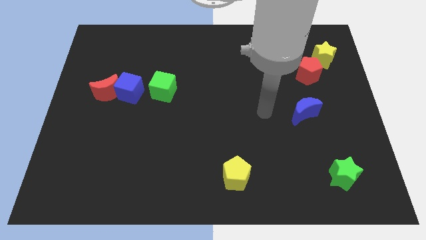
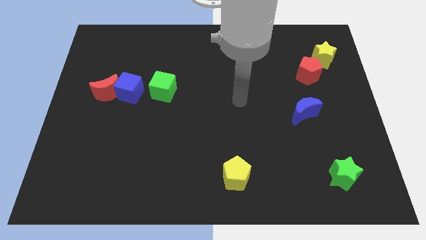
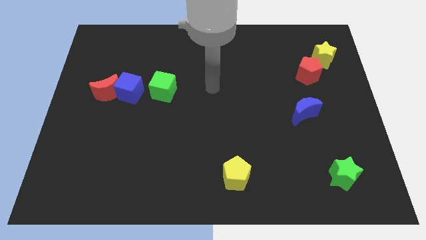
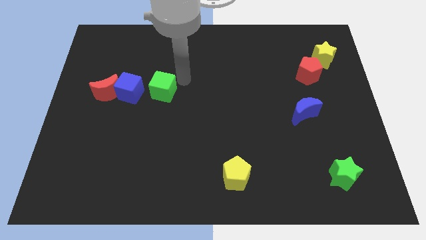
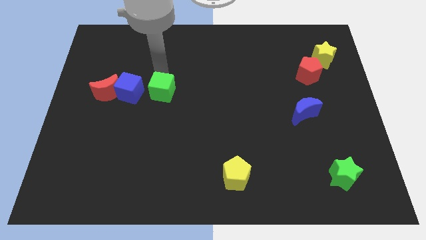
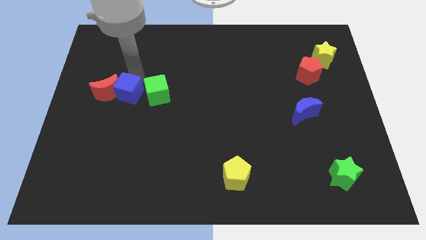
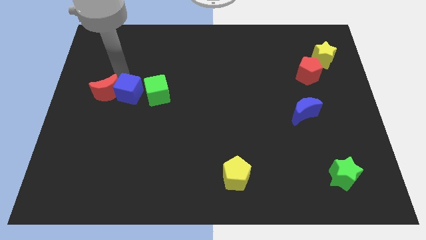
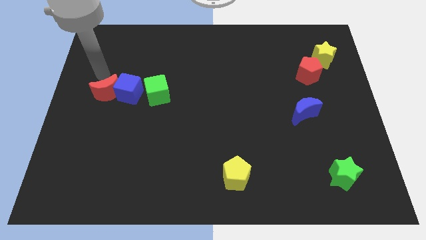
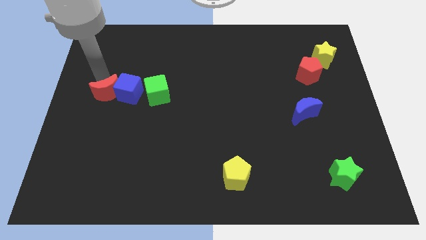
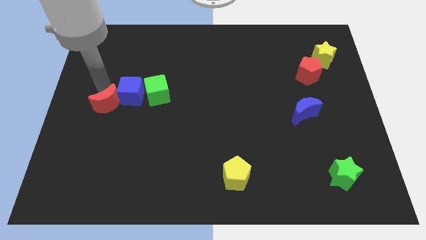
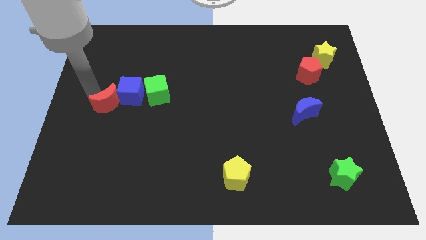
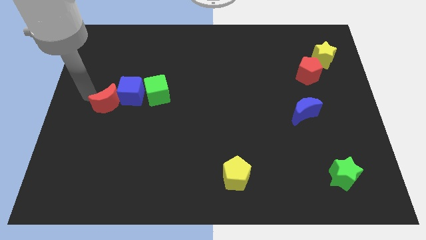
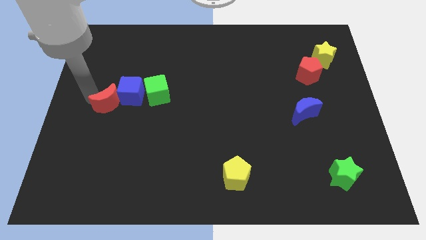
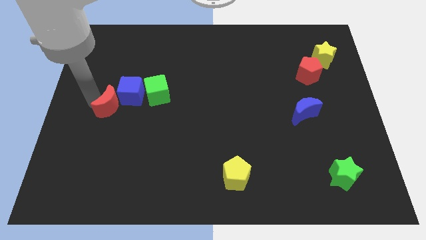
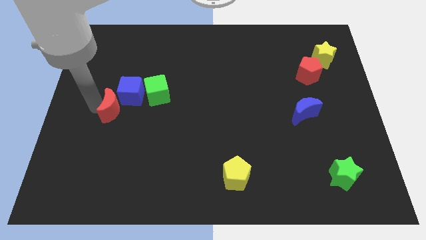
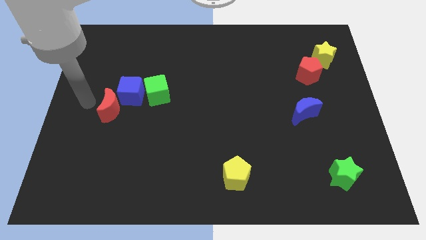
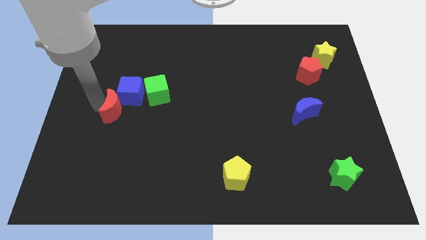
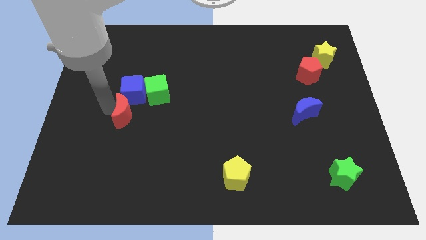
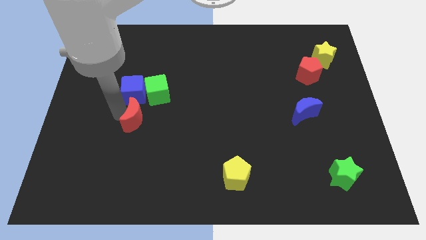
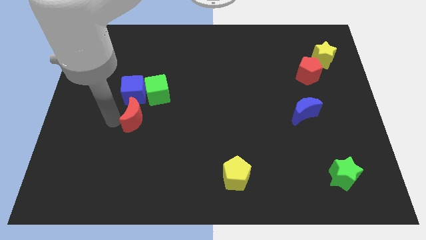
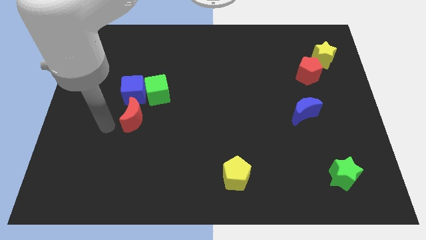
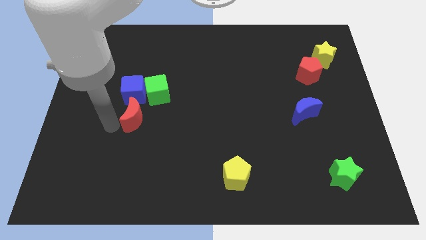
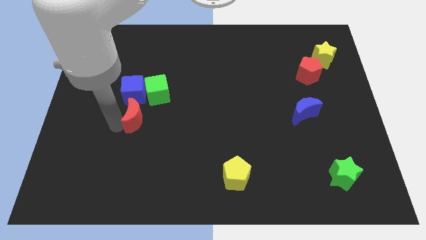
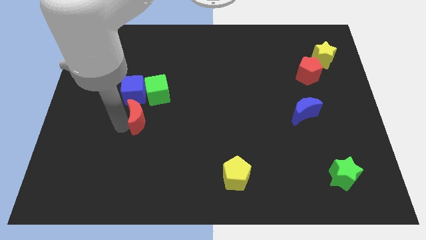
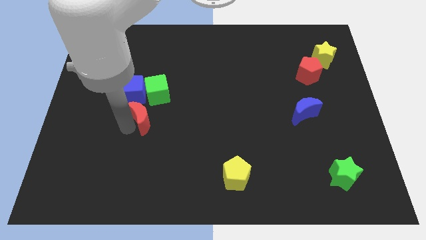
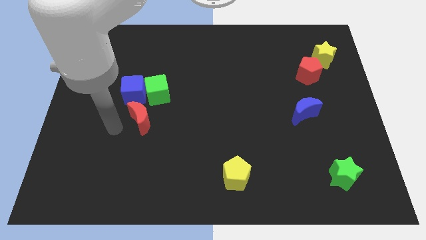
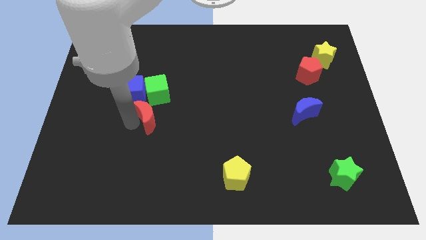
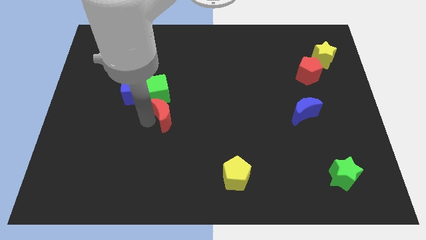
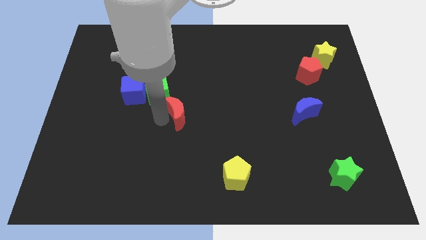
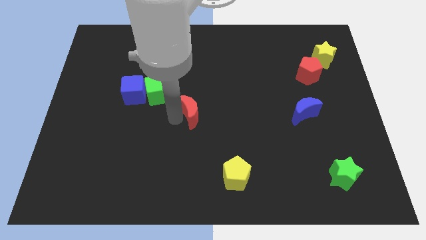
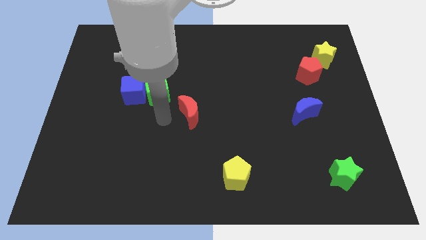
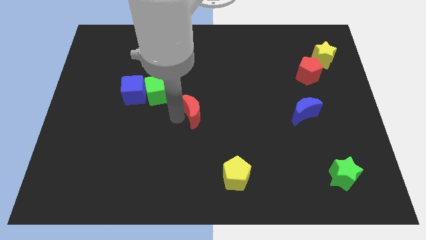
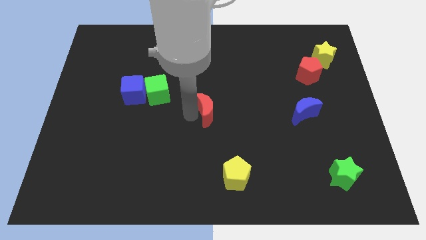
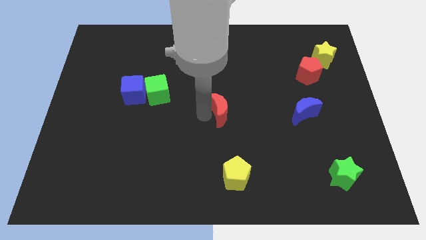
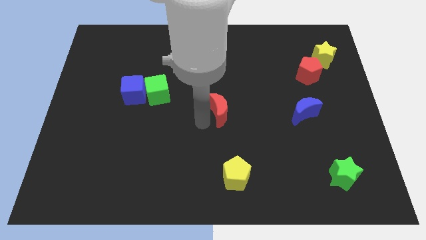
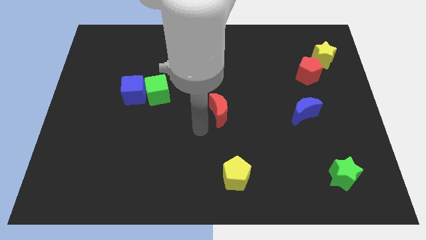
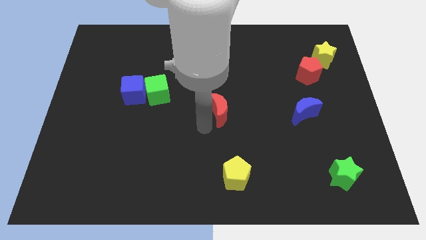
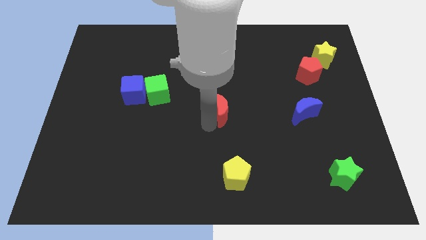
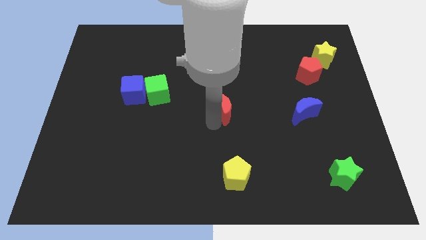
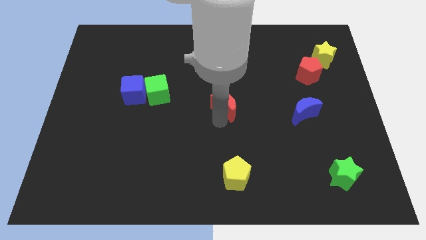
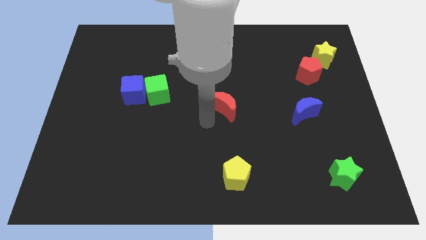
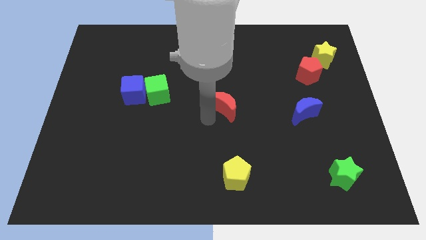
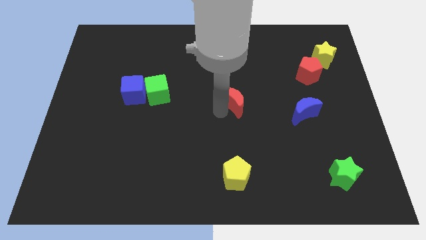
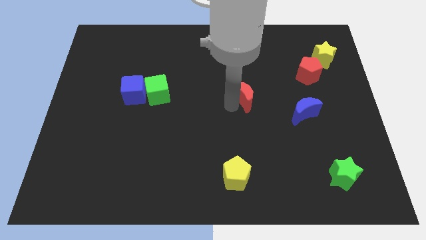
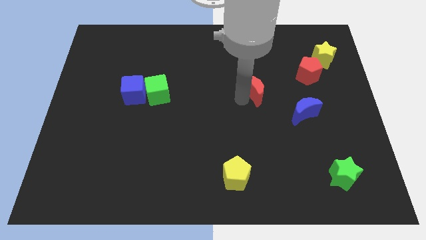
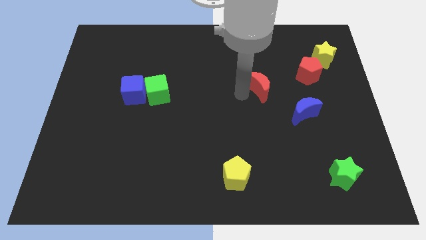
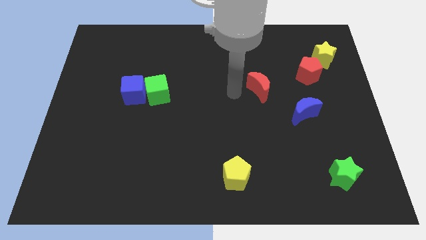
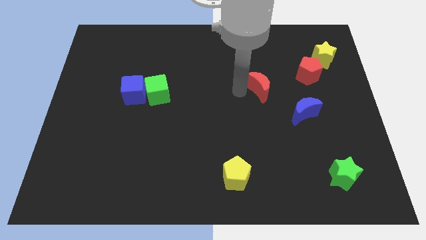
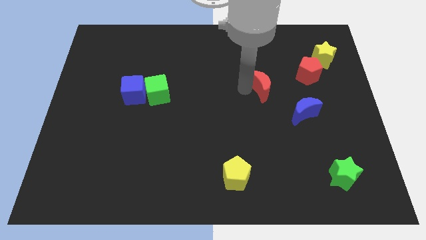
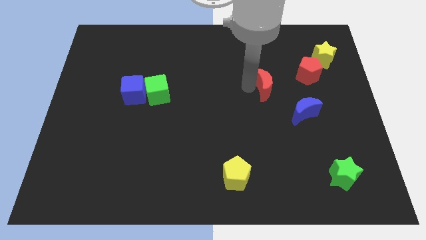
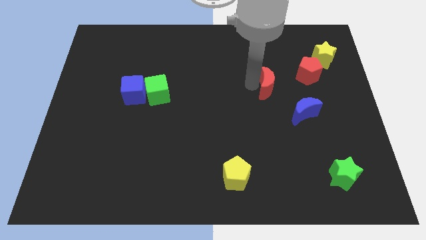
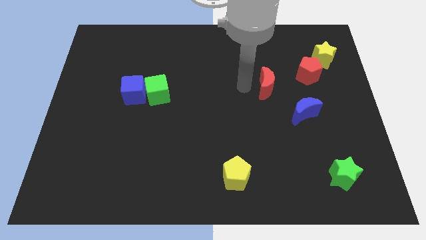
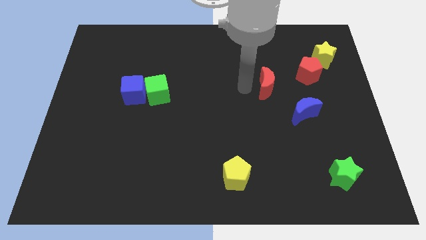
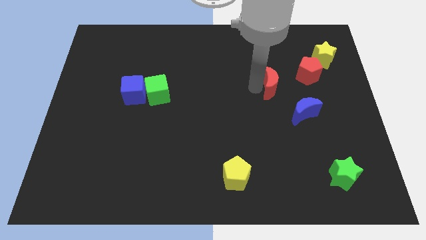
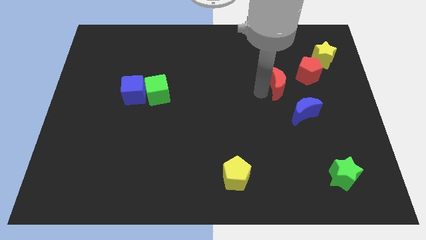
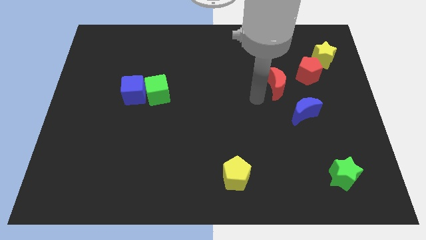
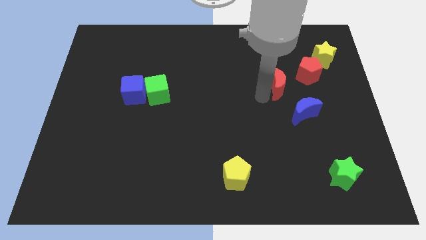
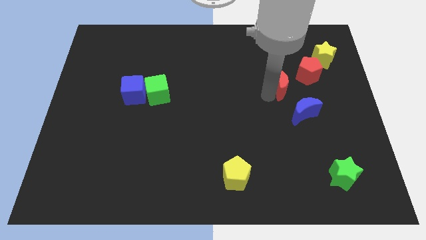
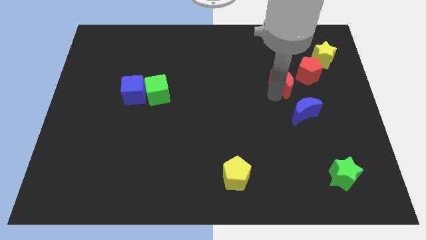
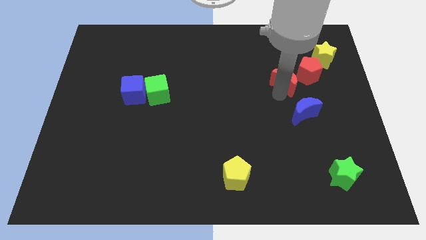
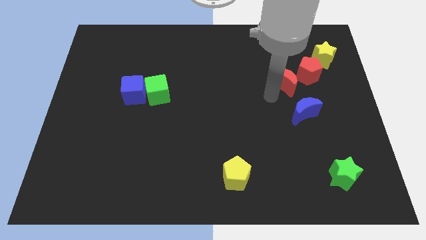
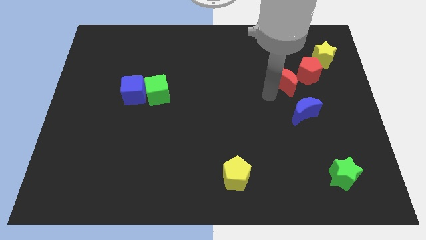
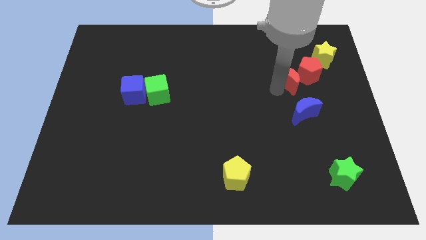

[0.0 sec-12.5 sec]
move the red moon close to the red pentagon
